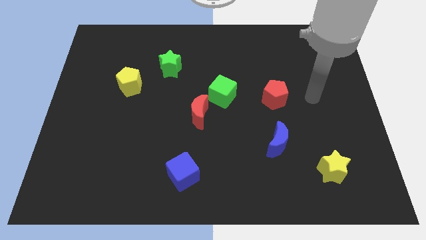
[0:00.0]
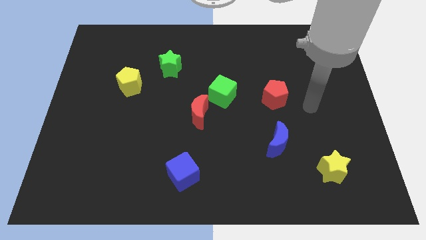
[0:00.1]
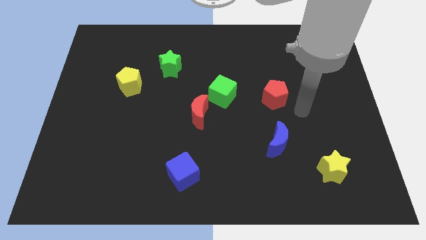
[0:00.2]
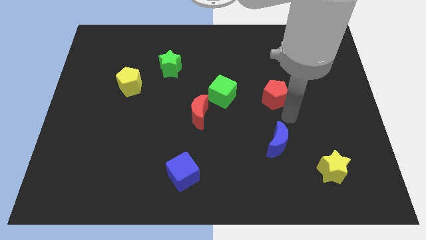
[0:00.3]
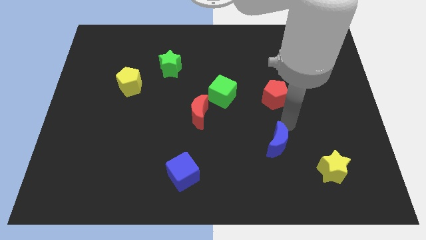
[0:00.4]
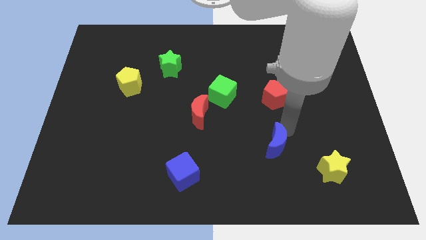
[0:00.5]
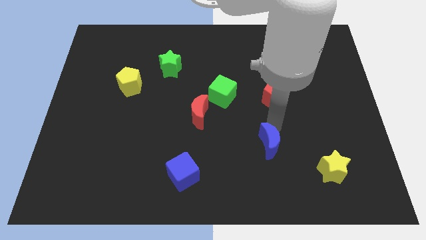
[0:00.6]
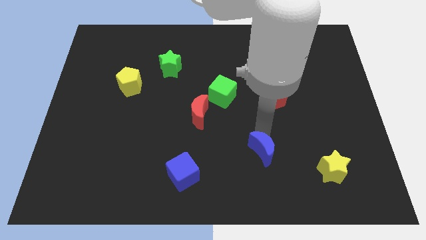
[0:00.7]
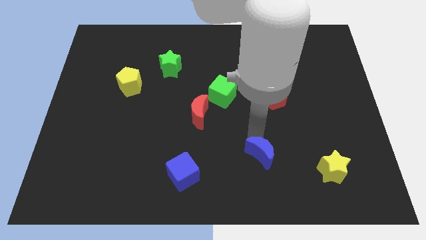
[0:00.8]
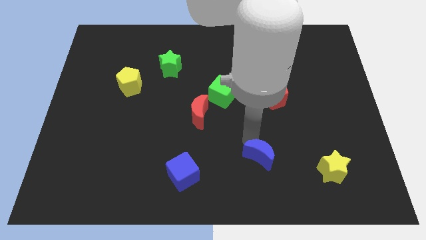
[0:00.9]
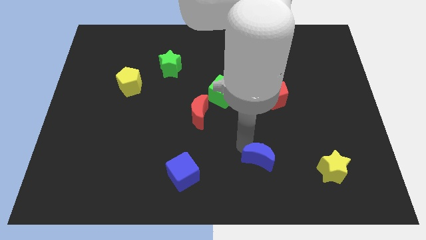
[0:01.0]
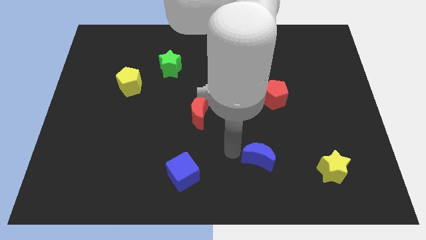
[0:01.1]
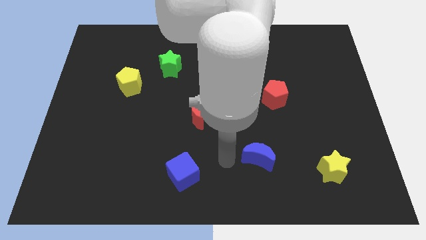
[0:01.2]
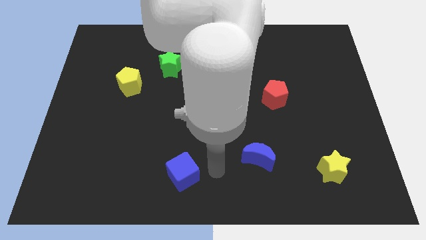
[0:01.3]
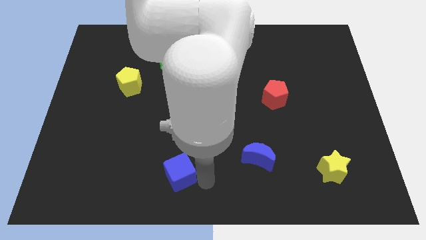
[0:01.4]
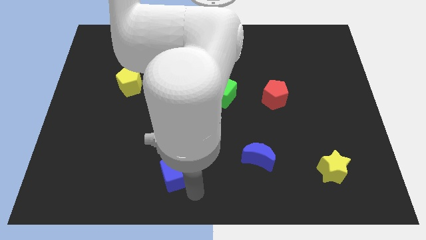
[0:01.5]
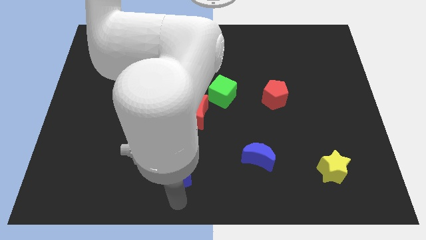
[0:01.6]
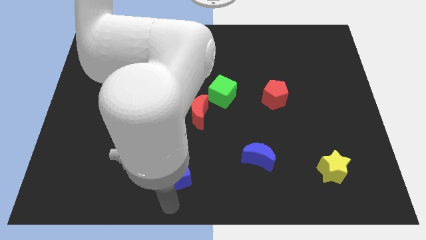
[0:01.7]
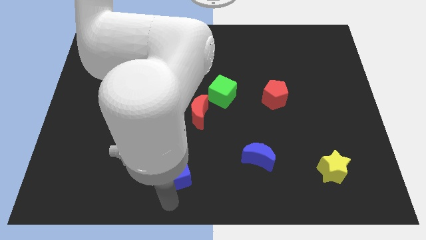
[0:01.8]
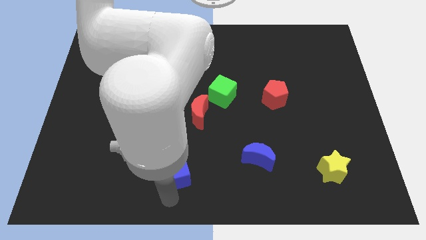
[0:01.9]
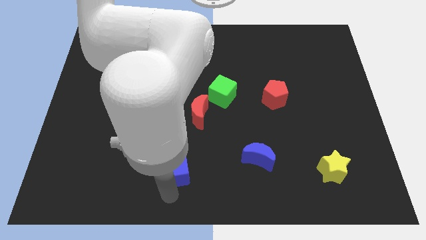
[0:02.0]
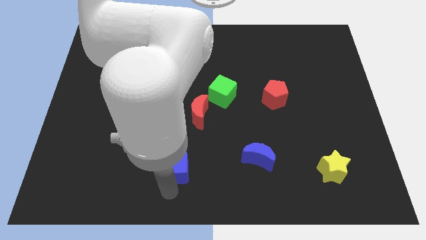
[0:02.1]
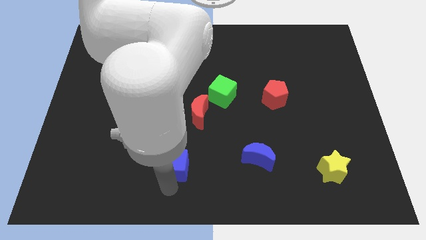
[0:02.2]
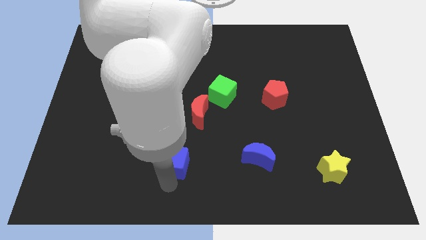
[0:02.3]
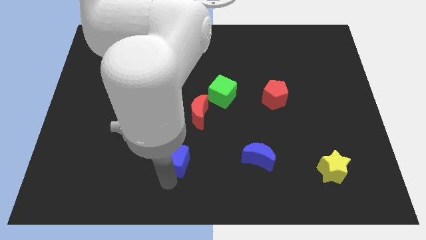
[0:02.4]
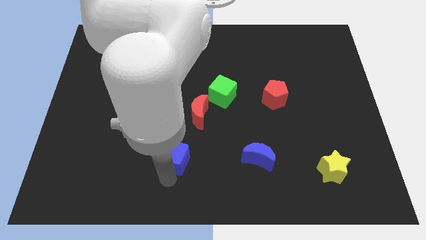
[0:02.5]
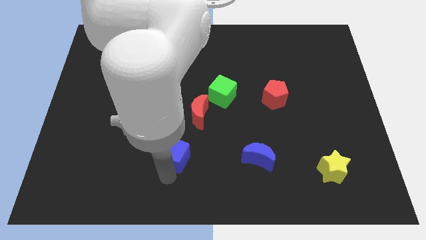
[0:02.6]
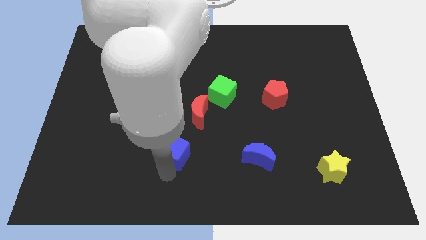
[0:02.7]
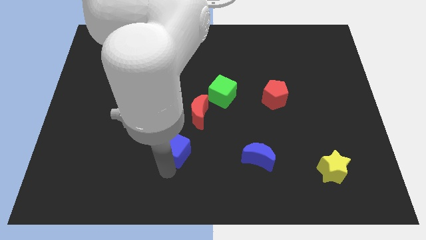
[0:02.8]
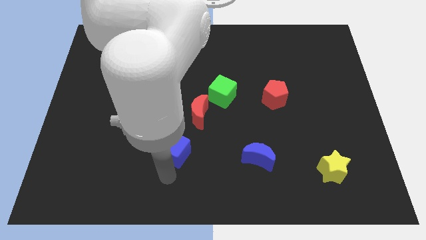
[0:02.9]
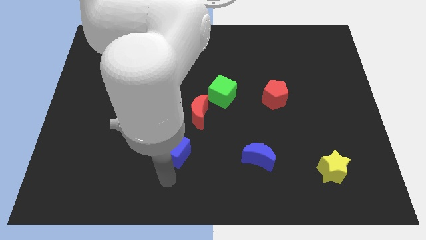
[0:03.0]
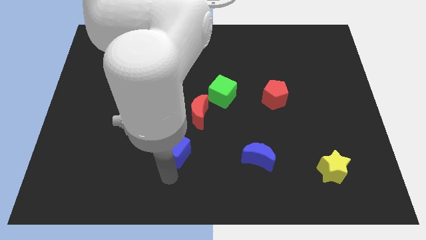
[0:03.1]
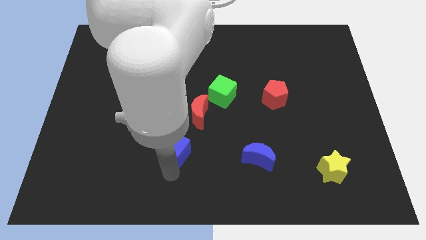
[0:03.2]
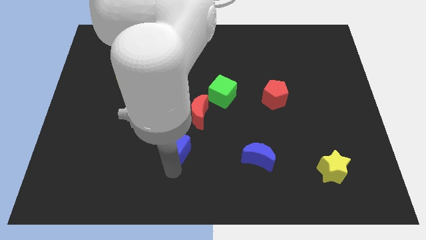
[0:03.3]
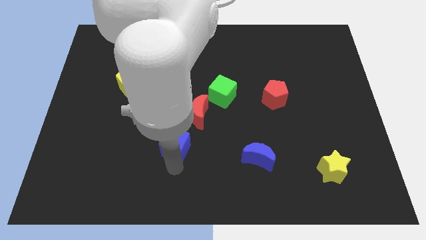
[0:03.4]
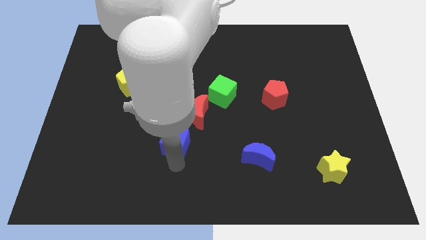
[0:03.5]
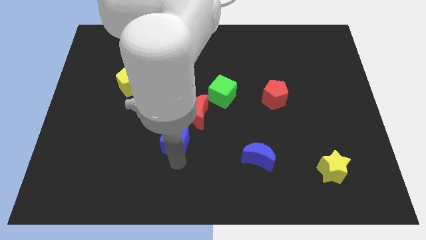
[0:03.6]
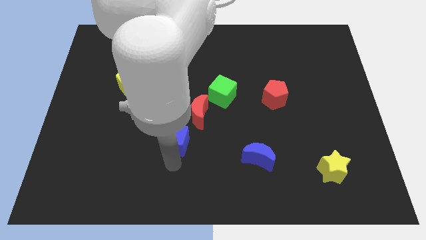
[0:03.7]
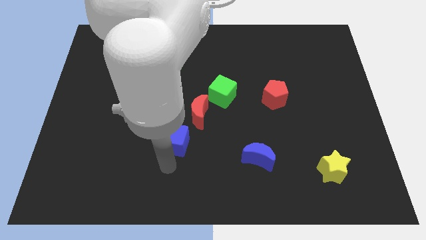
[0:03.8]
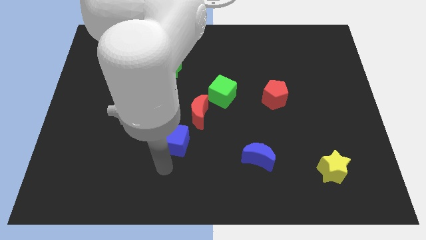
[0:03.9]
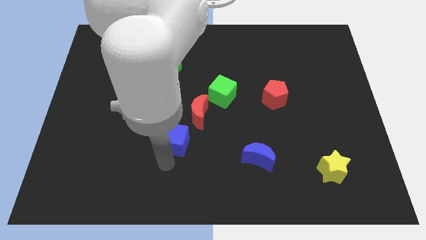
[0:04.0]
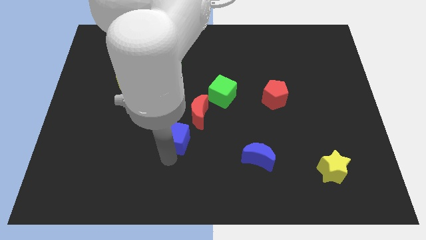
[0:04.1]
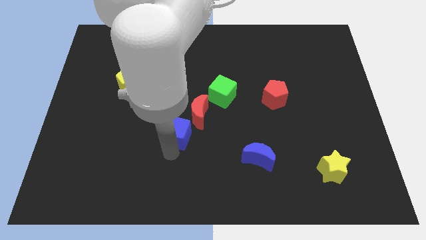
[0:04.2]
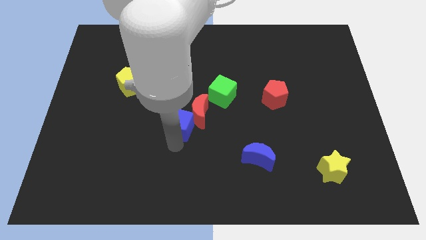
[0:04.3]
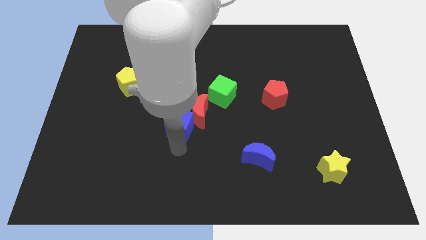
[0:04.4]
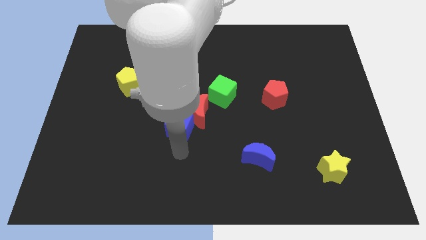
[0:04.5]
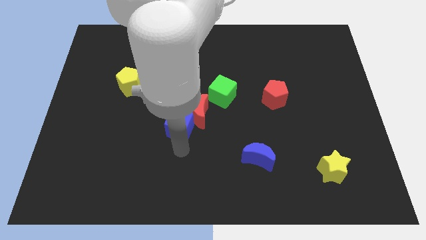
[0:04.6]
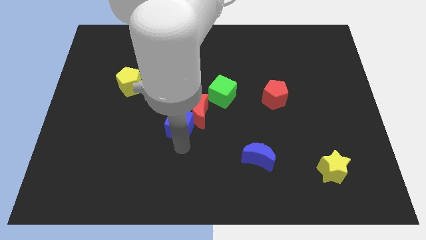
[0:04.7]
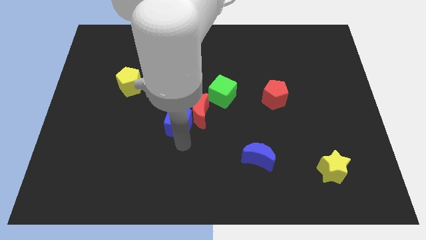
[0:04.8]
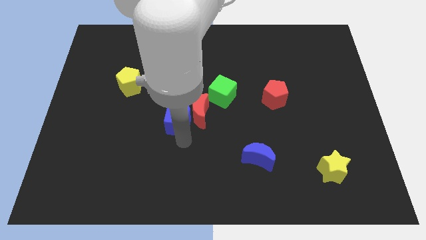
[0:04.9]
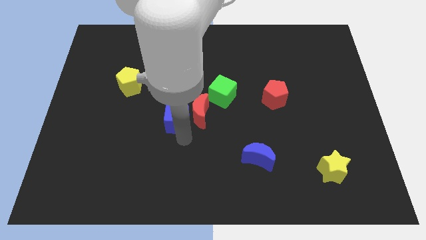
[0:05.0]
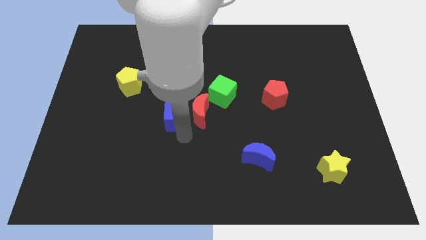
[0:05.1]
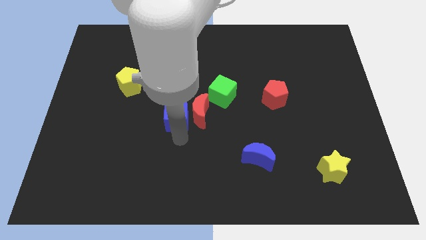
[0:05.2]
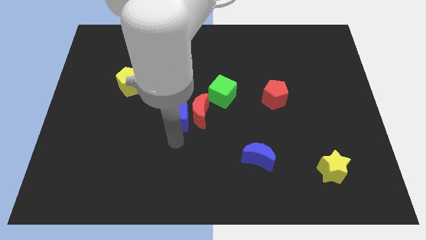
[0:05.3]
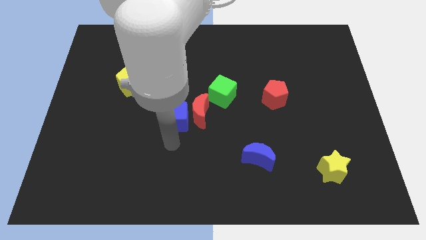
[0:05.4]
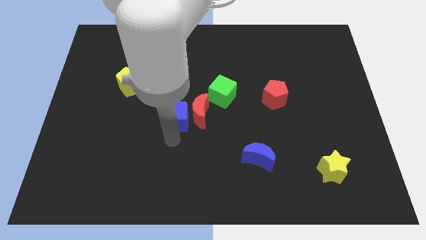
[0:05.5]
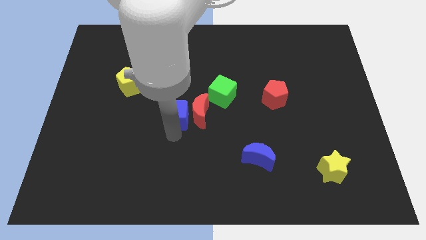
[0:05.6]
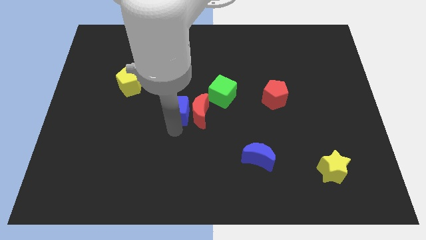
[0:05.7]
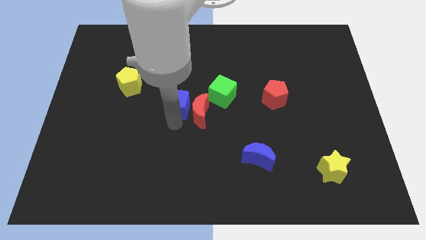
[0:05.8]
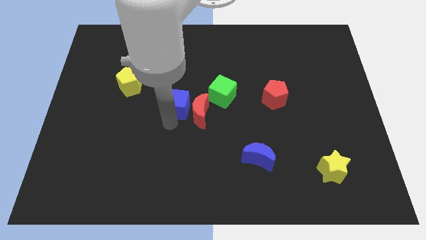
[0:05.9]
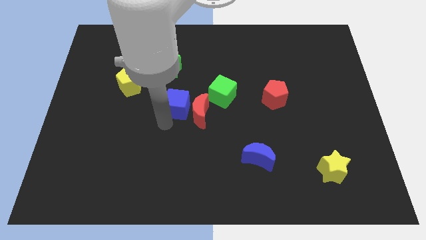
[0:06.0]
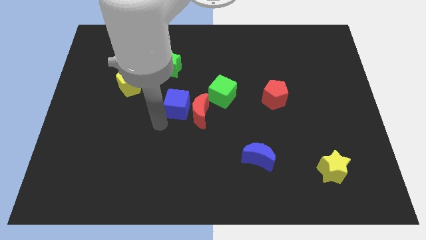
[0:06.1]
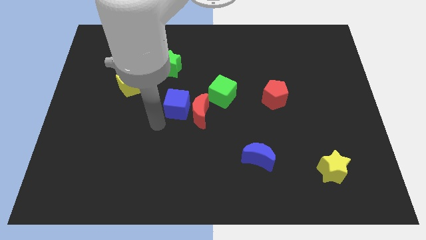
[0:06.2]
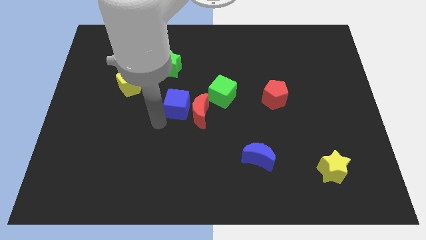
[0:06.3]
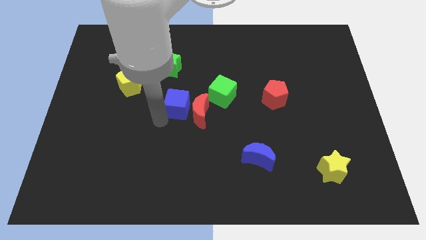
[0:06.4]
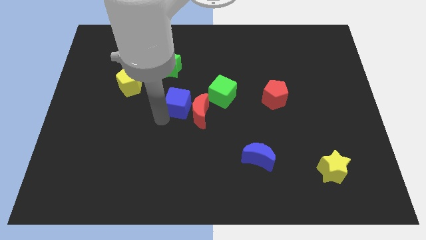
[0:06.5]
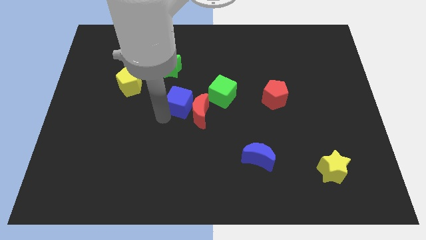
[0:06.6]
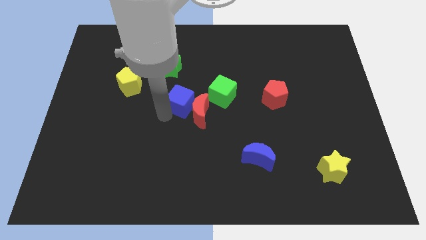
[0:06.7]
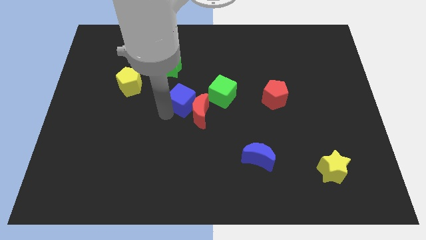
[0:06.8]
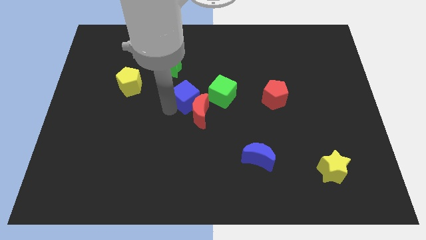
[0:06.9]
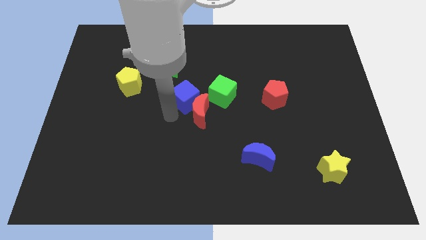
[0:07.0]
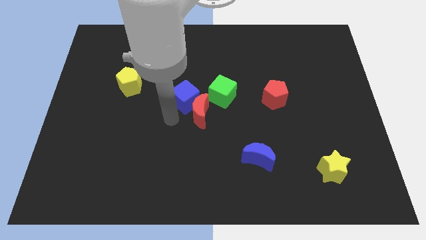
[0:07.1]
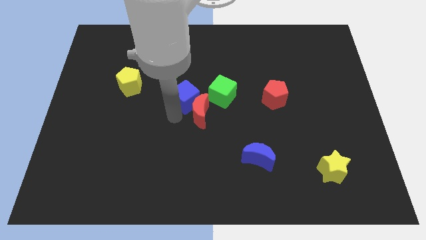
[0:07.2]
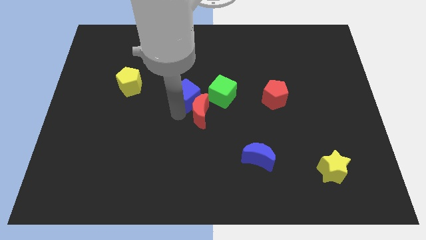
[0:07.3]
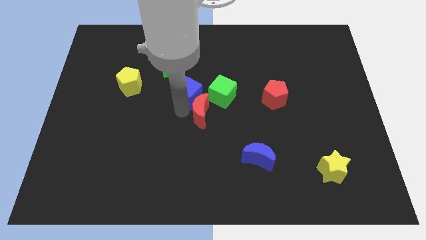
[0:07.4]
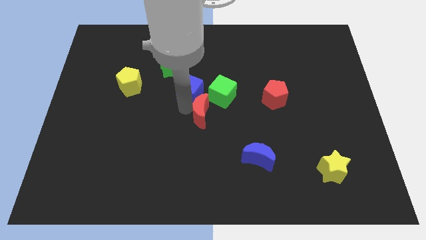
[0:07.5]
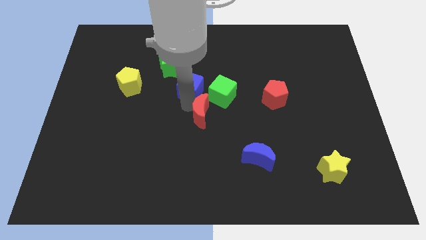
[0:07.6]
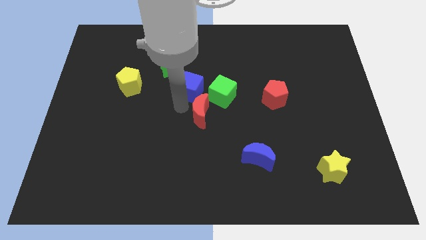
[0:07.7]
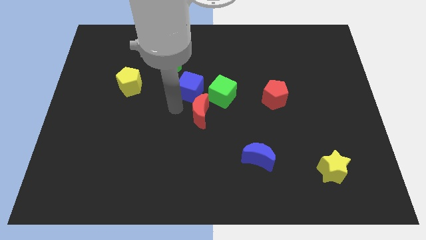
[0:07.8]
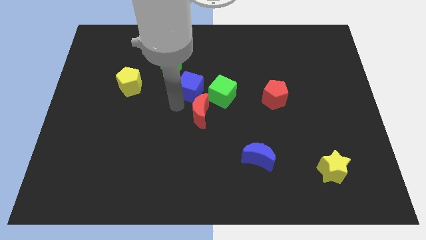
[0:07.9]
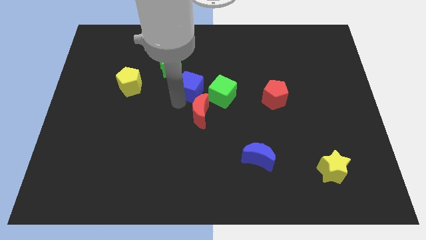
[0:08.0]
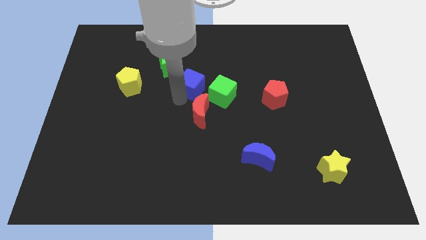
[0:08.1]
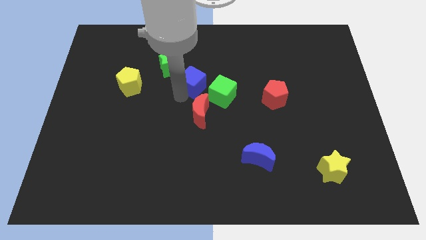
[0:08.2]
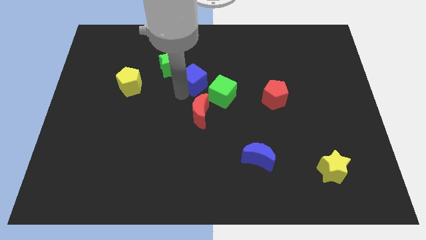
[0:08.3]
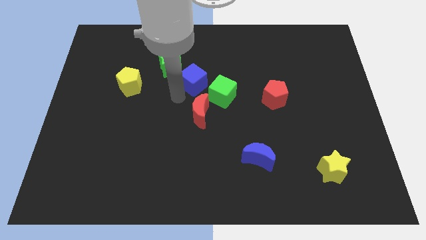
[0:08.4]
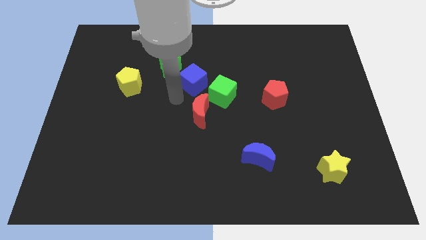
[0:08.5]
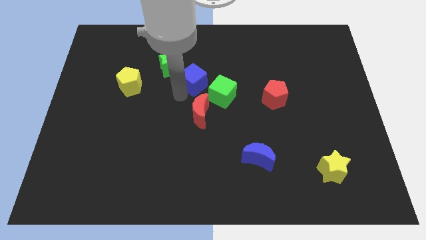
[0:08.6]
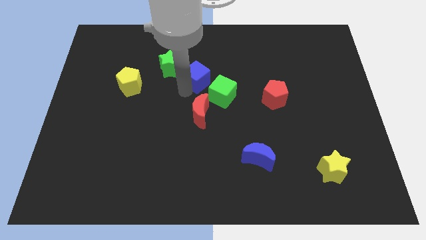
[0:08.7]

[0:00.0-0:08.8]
put the blue cube to the right side of the green star
